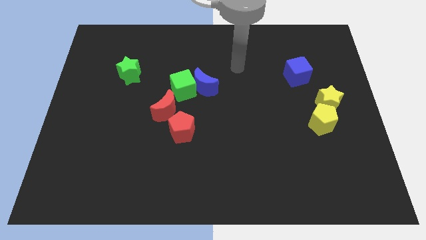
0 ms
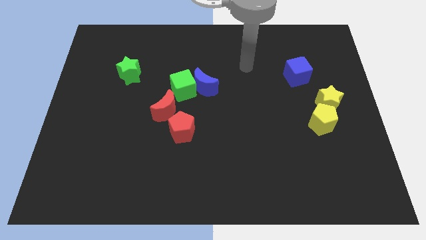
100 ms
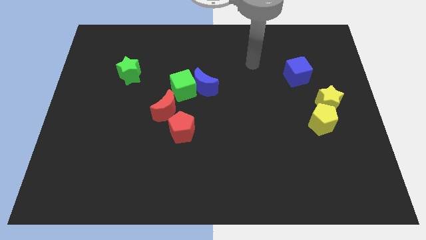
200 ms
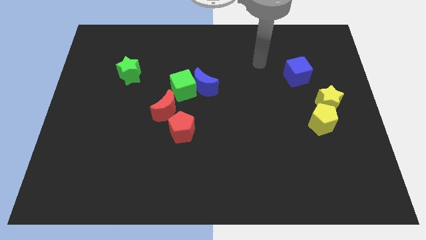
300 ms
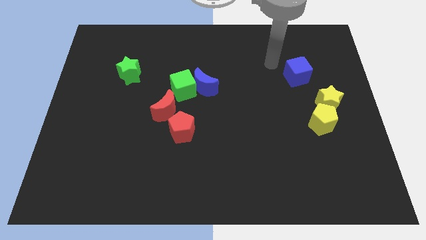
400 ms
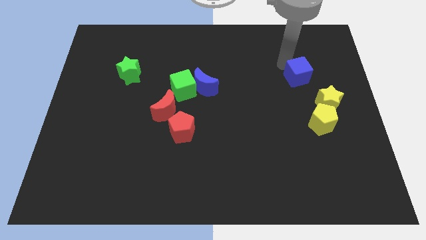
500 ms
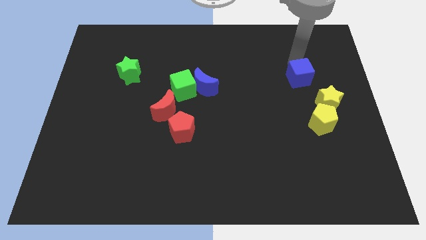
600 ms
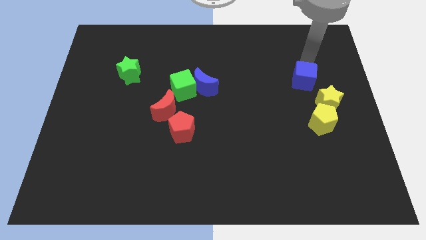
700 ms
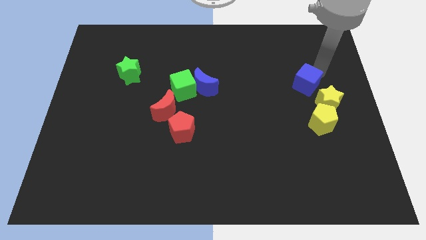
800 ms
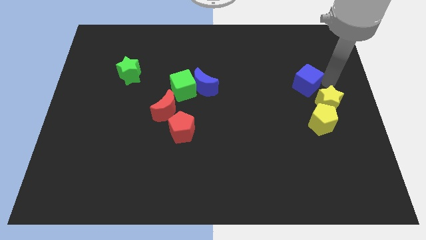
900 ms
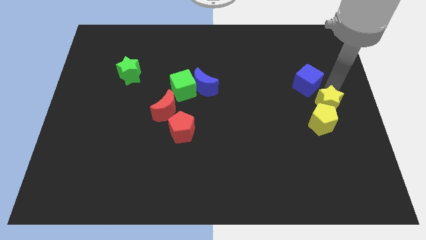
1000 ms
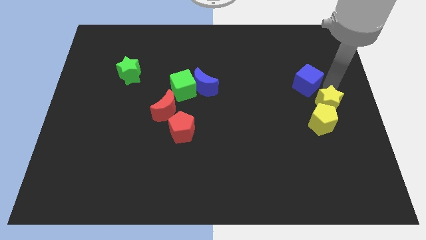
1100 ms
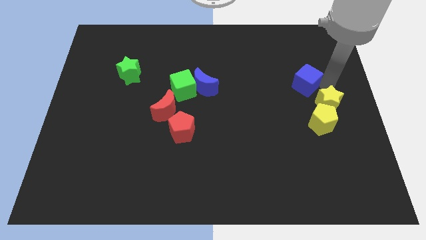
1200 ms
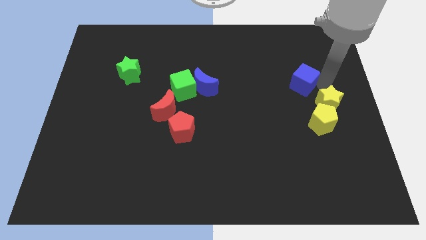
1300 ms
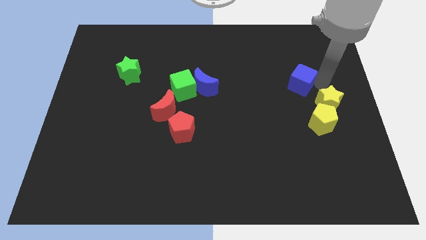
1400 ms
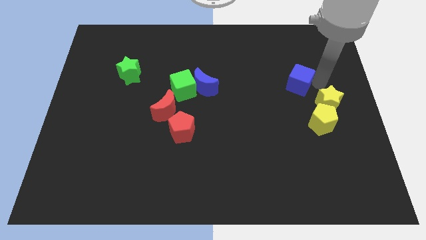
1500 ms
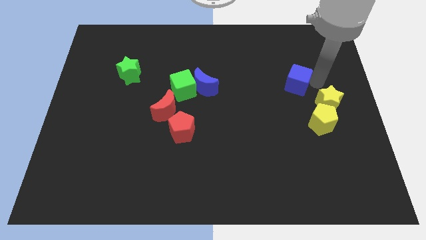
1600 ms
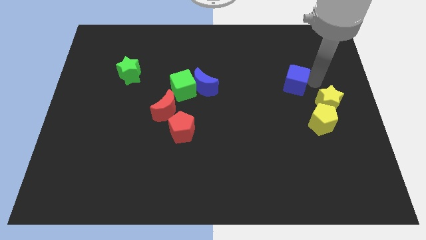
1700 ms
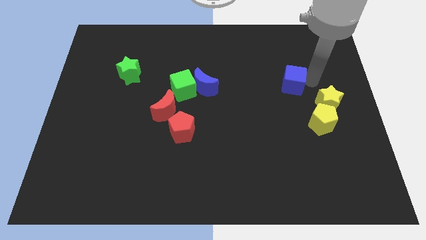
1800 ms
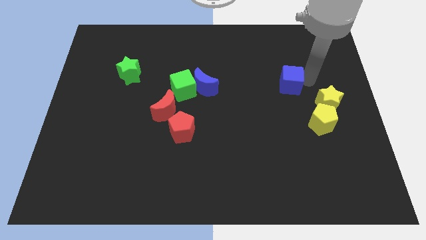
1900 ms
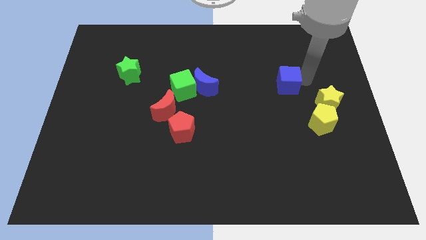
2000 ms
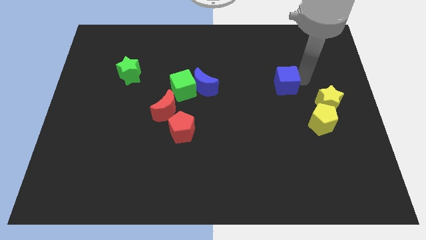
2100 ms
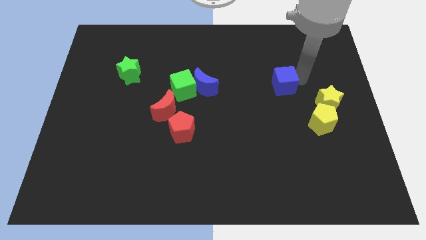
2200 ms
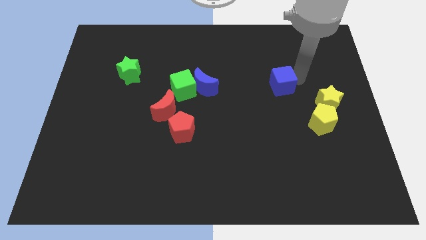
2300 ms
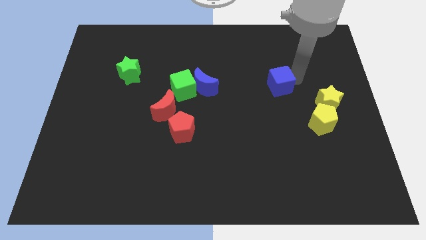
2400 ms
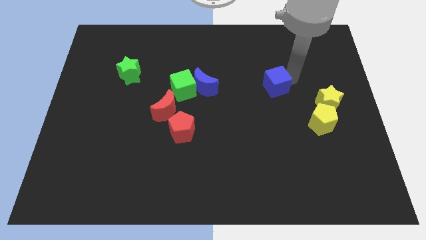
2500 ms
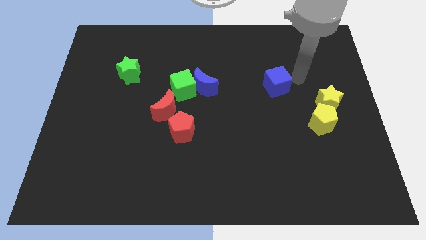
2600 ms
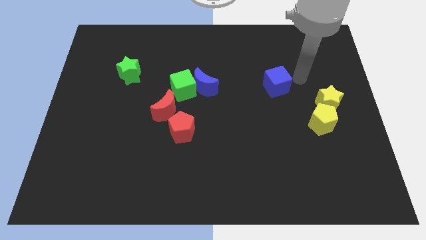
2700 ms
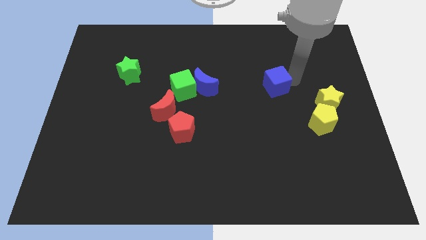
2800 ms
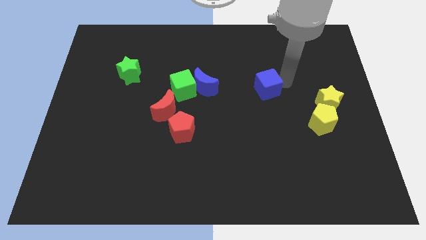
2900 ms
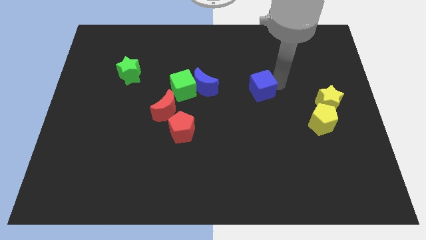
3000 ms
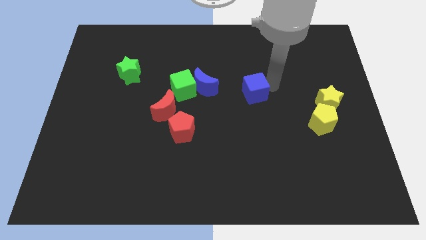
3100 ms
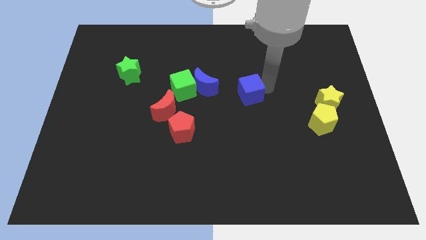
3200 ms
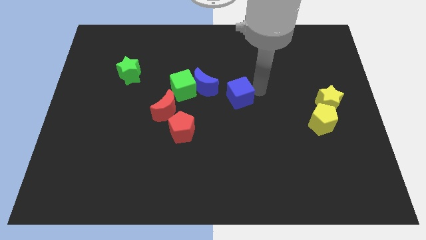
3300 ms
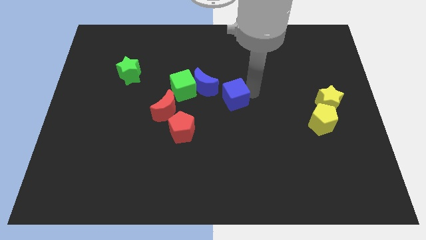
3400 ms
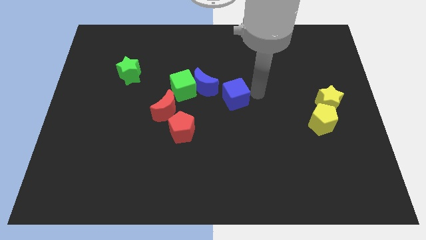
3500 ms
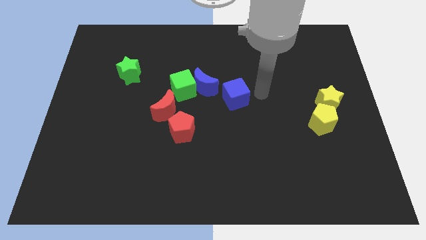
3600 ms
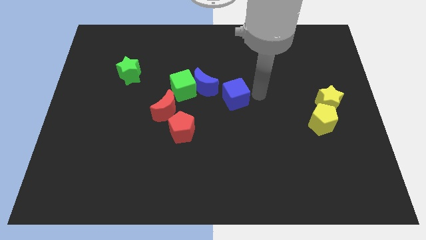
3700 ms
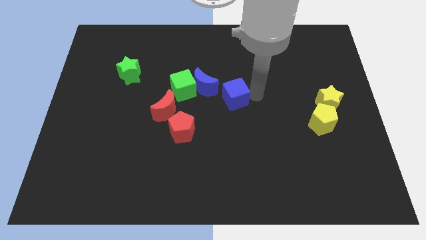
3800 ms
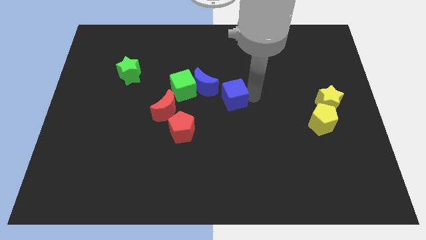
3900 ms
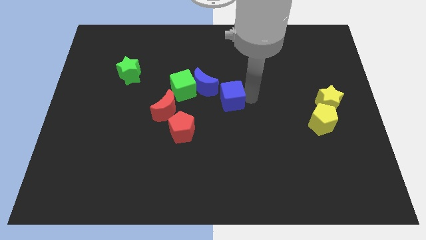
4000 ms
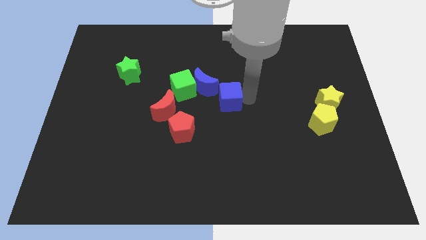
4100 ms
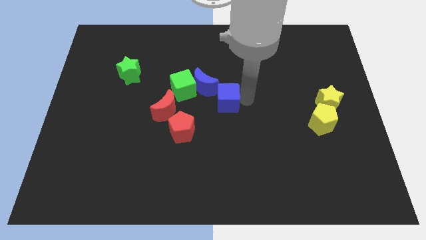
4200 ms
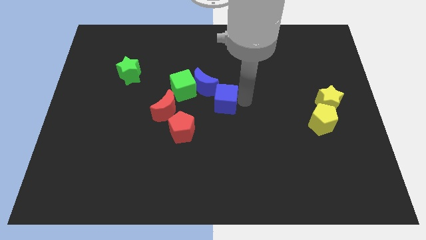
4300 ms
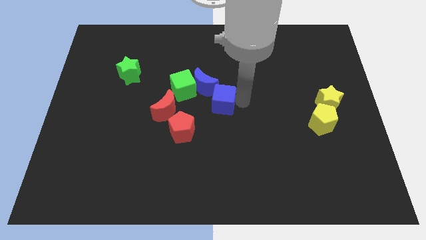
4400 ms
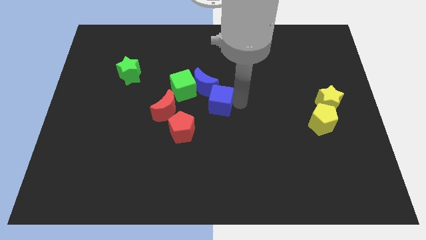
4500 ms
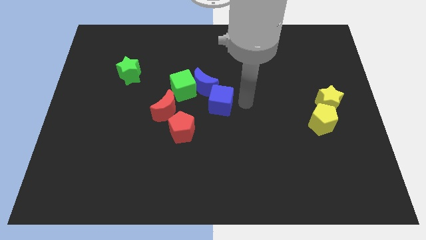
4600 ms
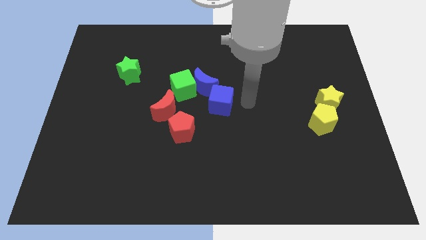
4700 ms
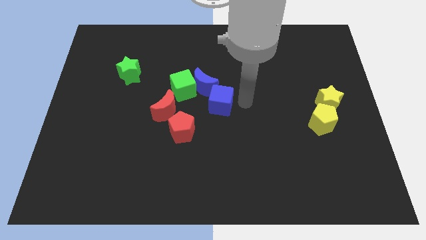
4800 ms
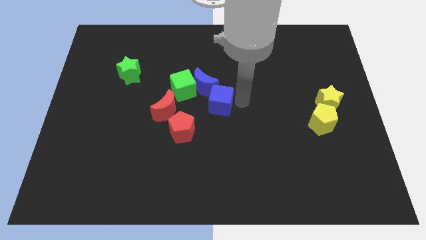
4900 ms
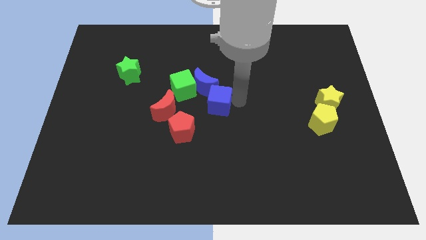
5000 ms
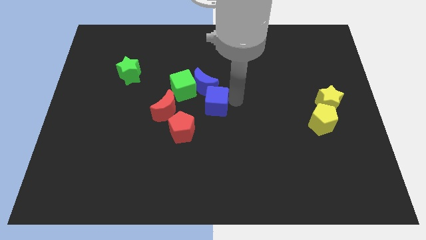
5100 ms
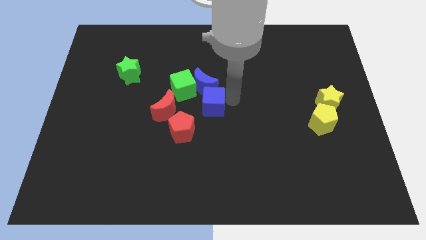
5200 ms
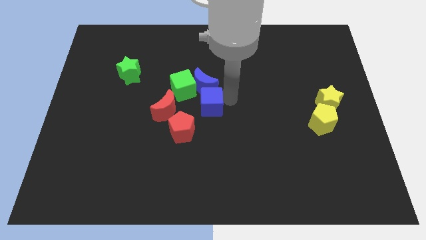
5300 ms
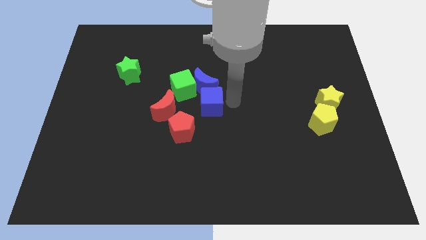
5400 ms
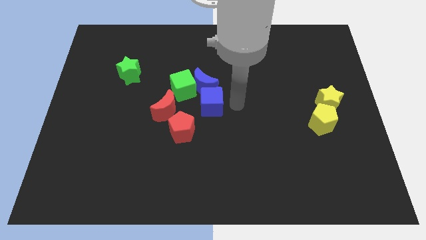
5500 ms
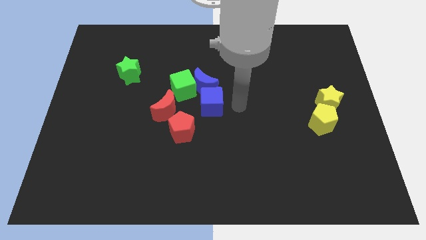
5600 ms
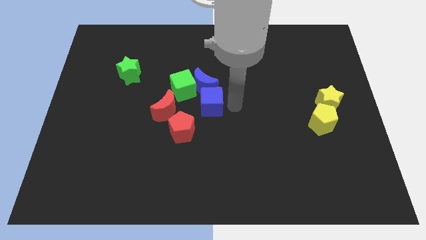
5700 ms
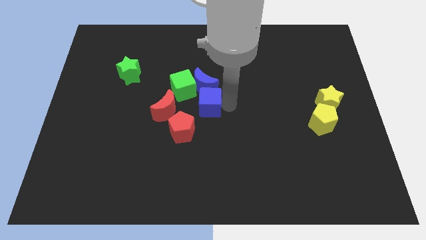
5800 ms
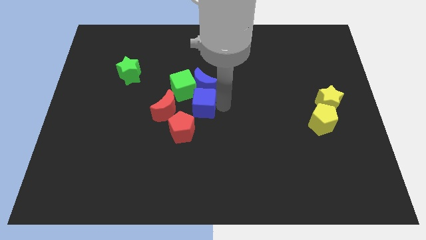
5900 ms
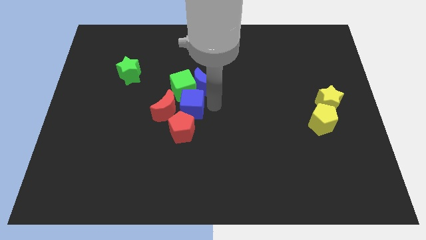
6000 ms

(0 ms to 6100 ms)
slide the blue cube next to the red moon

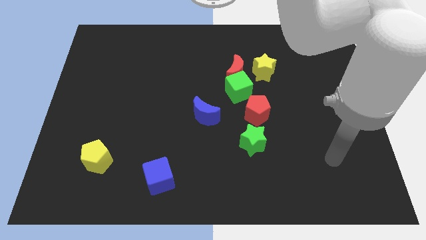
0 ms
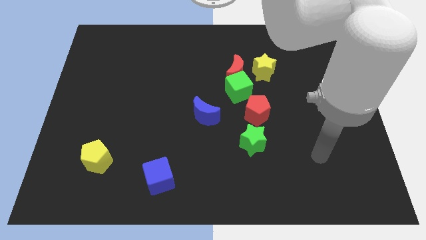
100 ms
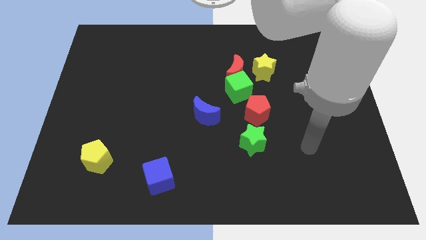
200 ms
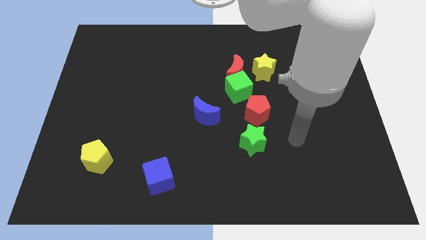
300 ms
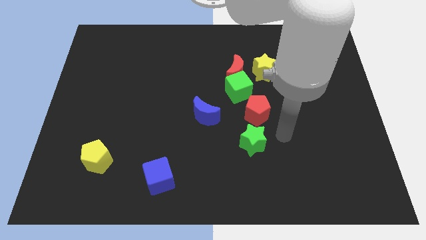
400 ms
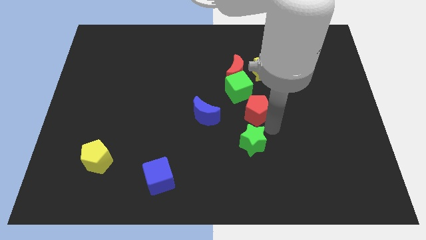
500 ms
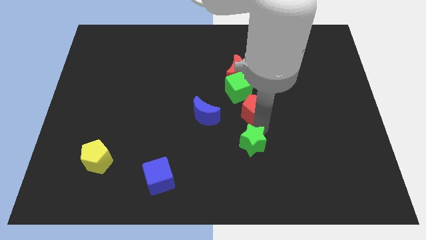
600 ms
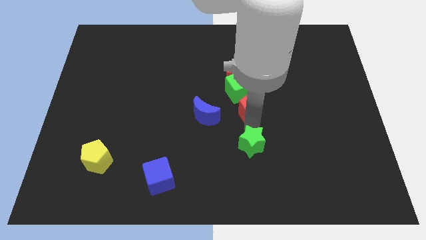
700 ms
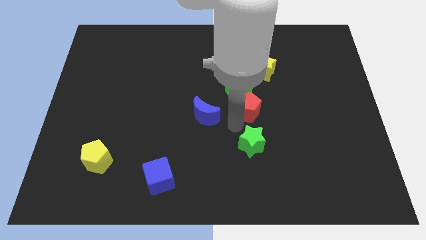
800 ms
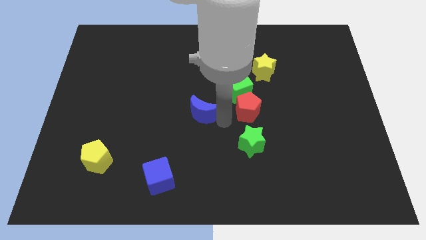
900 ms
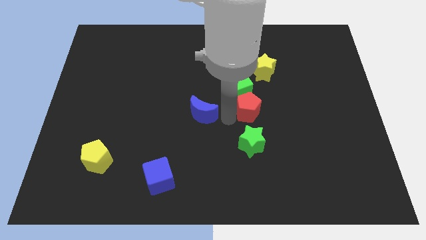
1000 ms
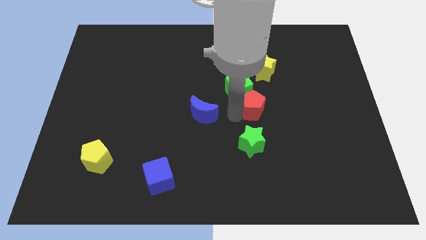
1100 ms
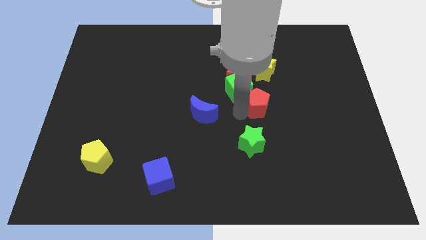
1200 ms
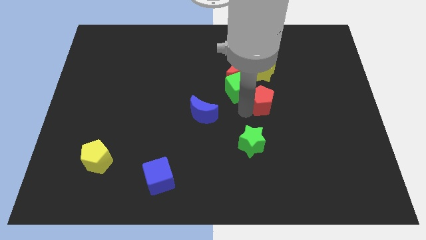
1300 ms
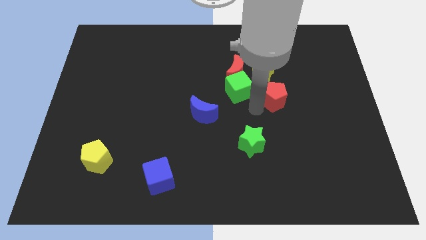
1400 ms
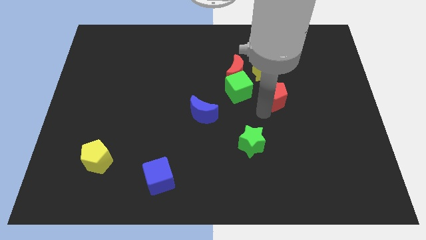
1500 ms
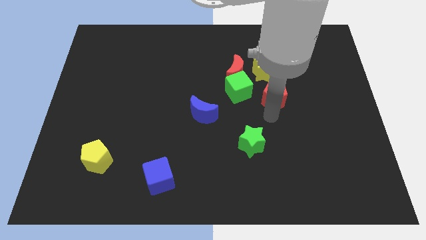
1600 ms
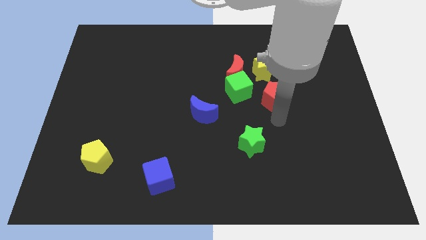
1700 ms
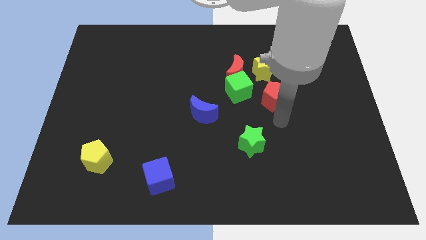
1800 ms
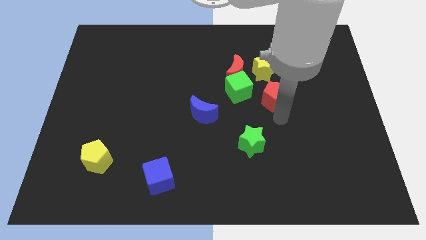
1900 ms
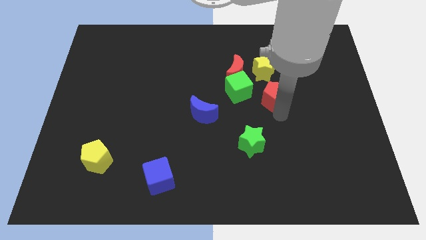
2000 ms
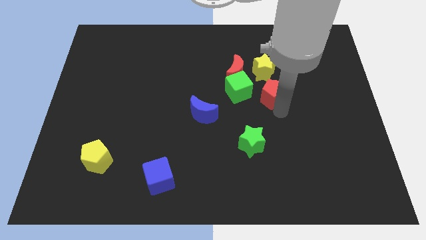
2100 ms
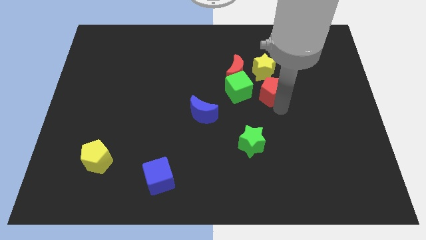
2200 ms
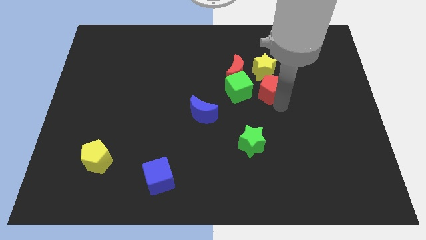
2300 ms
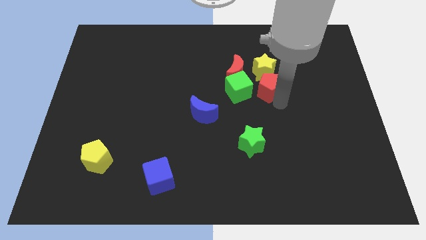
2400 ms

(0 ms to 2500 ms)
put the red pentagon next to the yellow star
